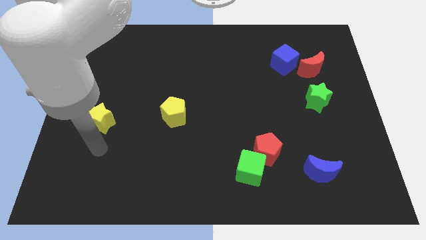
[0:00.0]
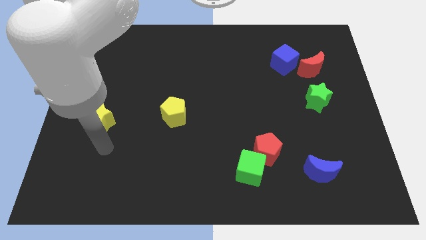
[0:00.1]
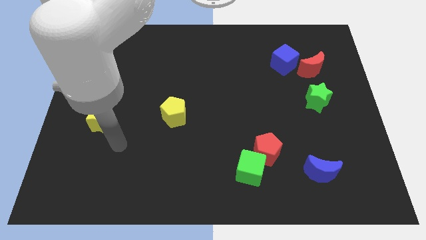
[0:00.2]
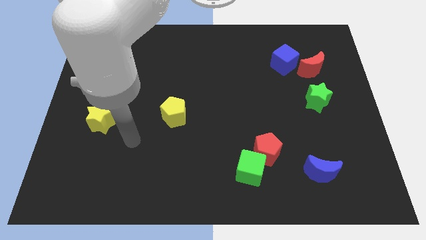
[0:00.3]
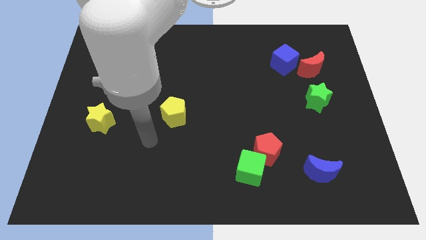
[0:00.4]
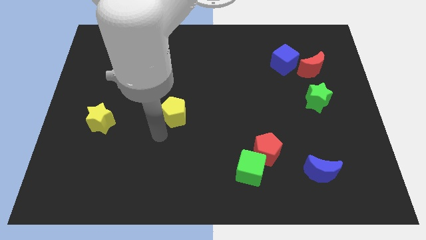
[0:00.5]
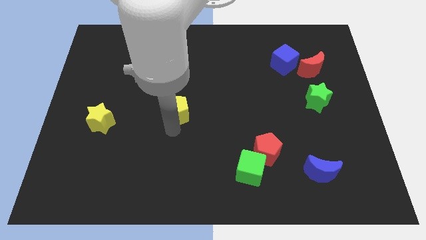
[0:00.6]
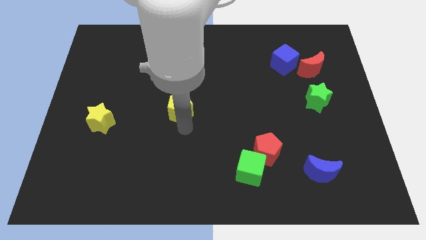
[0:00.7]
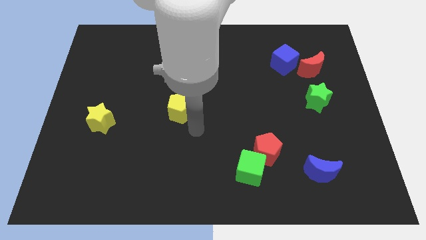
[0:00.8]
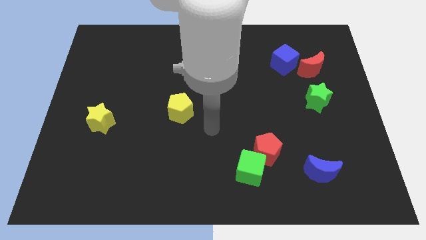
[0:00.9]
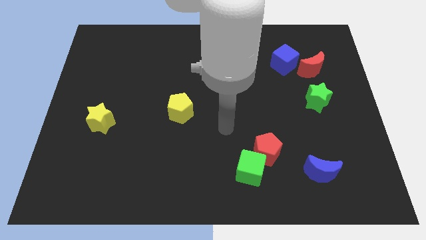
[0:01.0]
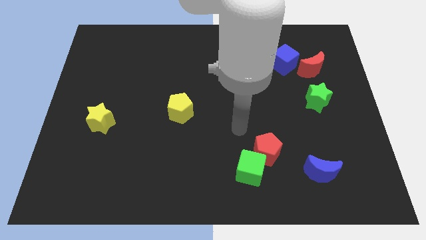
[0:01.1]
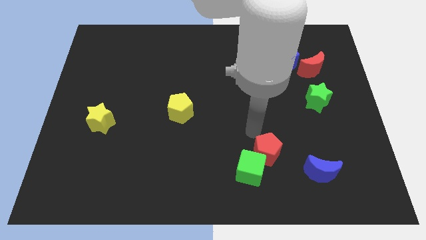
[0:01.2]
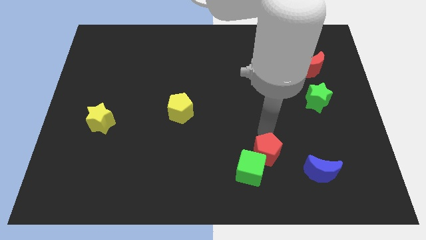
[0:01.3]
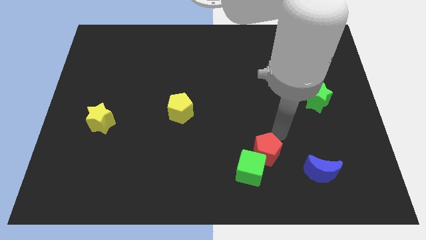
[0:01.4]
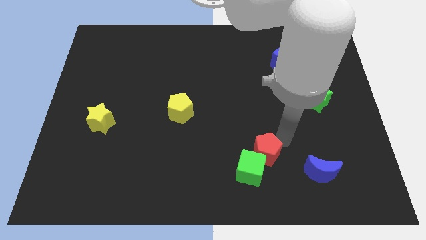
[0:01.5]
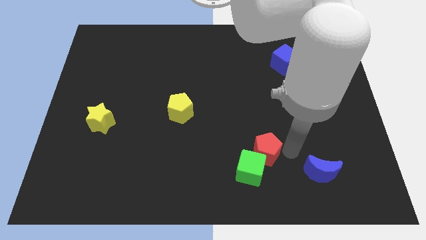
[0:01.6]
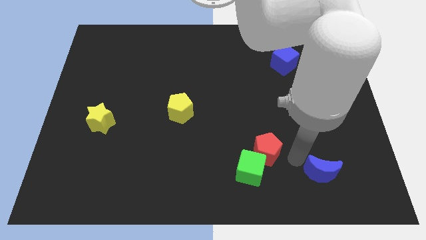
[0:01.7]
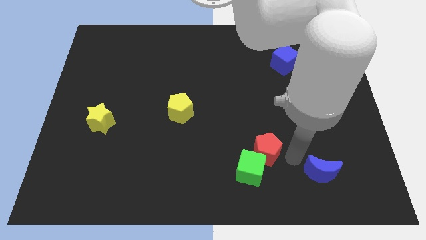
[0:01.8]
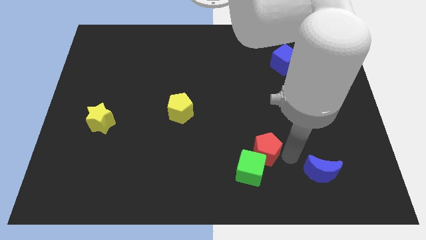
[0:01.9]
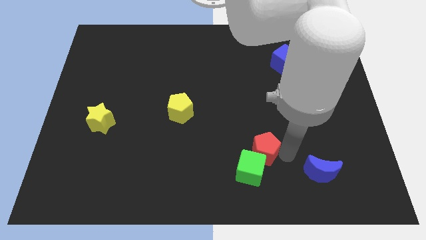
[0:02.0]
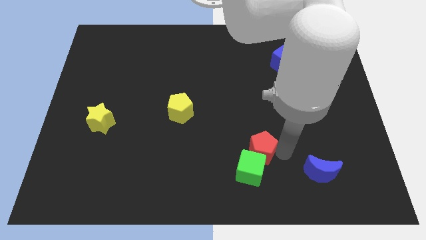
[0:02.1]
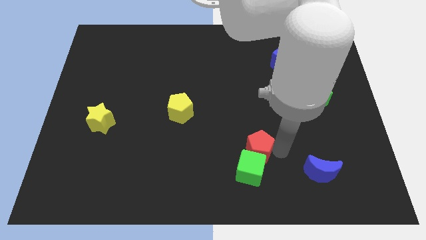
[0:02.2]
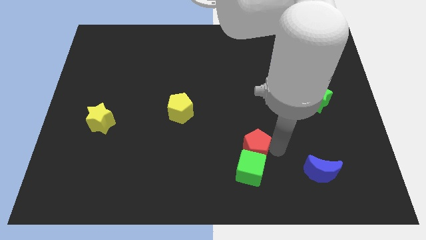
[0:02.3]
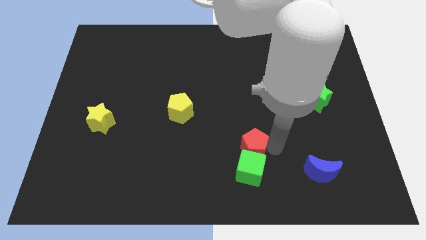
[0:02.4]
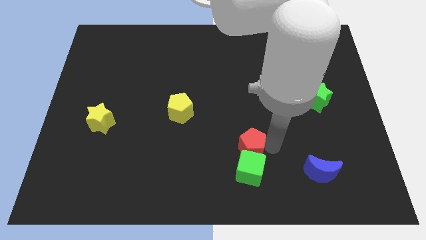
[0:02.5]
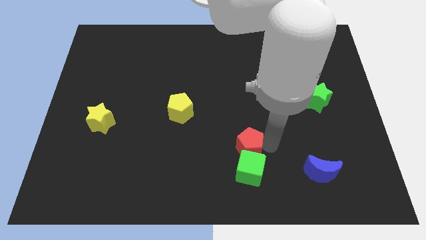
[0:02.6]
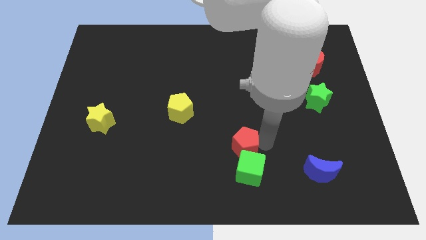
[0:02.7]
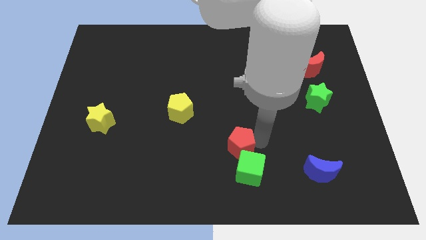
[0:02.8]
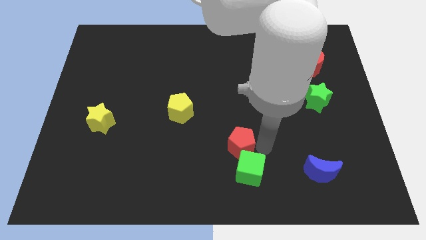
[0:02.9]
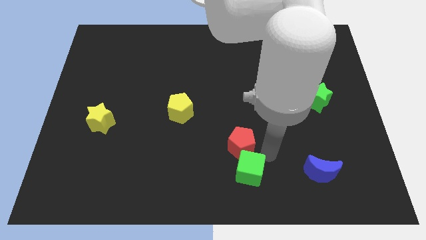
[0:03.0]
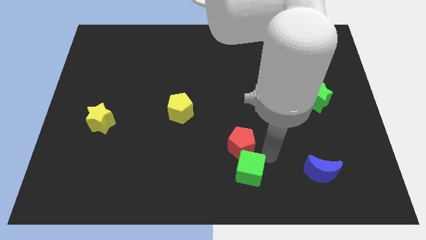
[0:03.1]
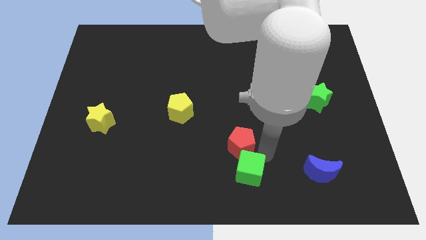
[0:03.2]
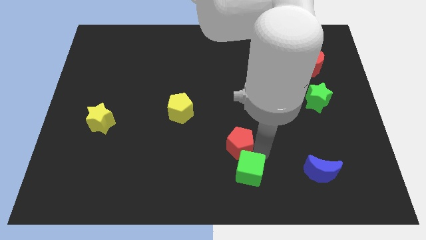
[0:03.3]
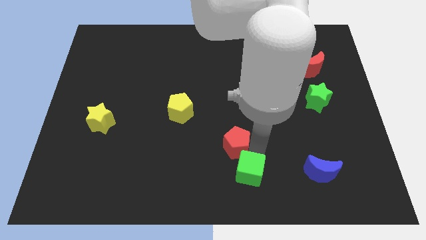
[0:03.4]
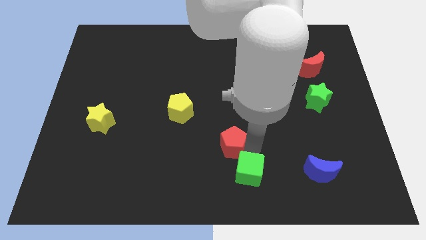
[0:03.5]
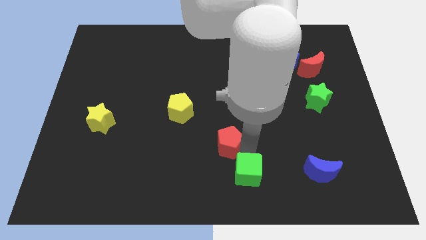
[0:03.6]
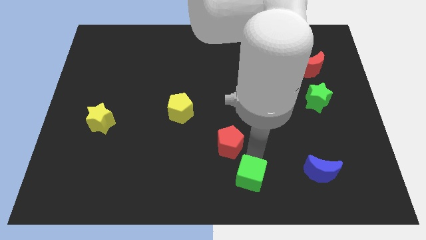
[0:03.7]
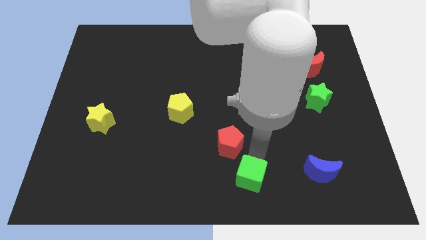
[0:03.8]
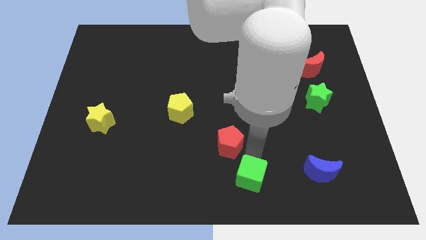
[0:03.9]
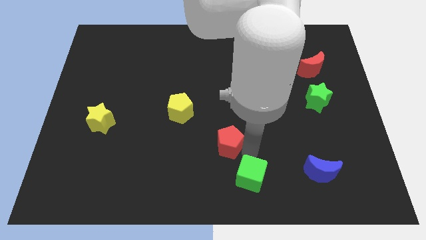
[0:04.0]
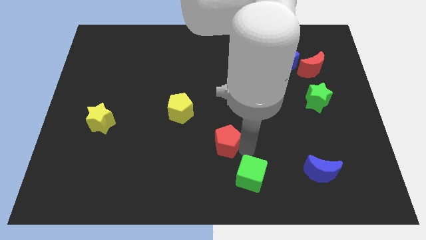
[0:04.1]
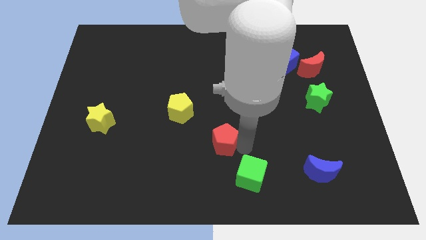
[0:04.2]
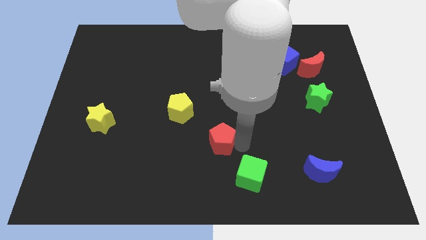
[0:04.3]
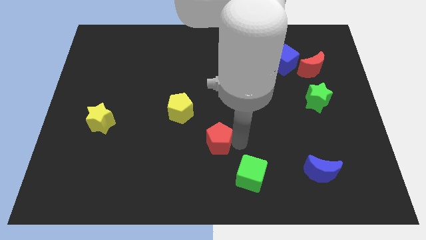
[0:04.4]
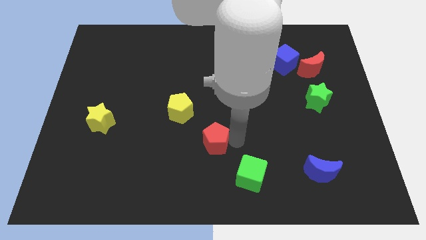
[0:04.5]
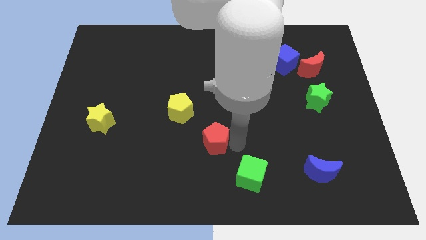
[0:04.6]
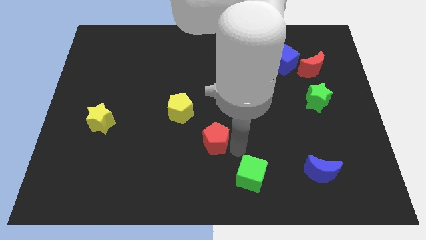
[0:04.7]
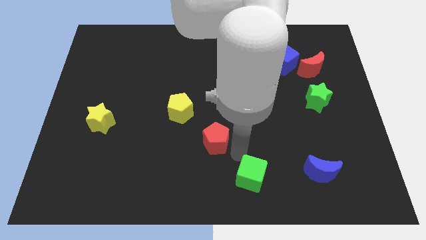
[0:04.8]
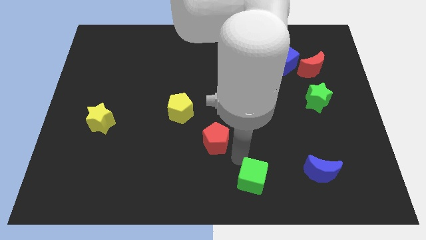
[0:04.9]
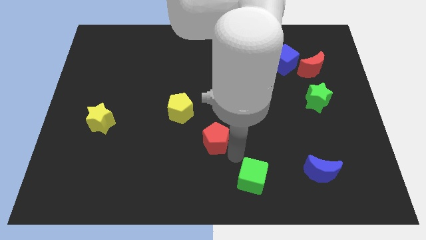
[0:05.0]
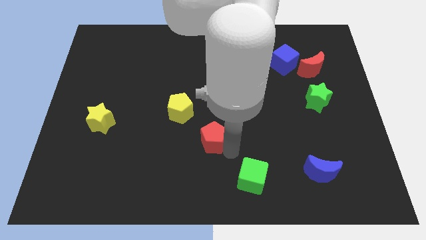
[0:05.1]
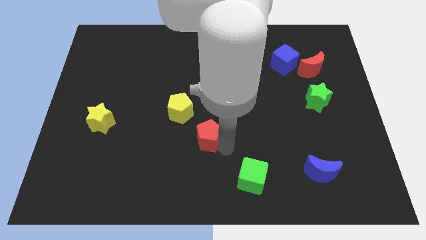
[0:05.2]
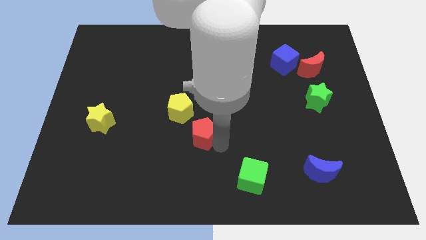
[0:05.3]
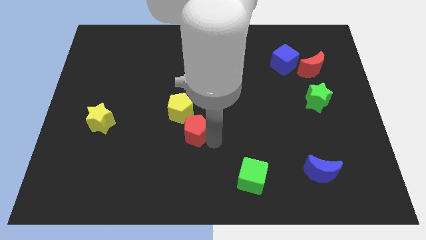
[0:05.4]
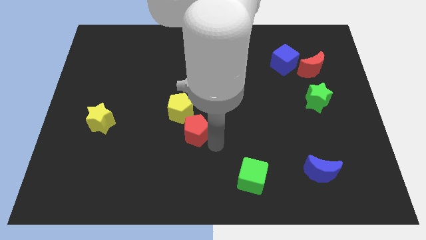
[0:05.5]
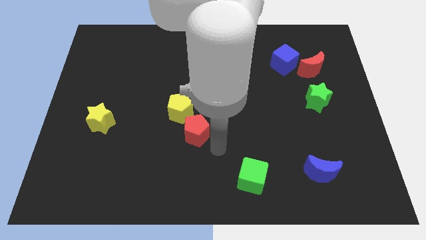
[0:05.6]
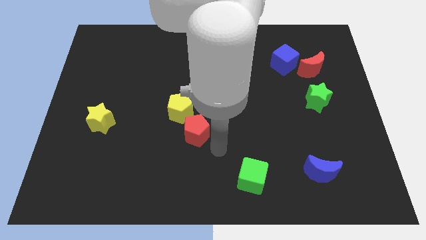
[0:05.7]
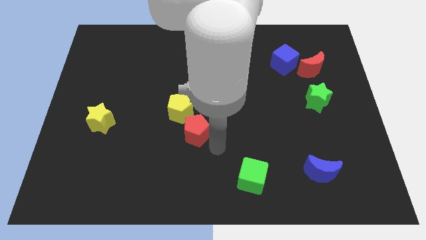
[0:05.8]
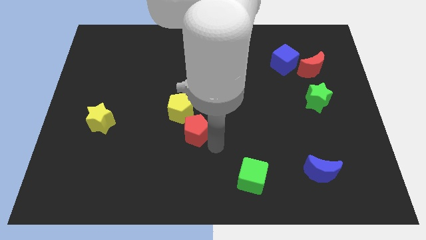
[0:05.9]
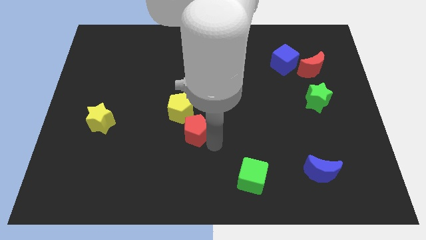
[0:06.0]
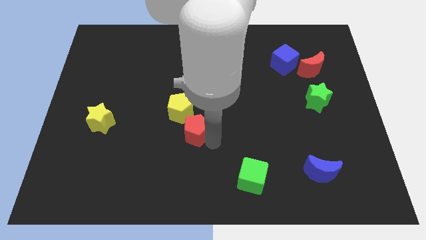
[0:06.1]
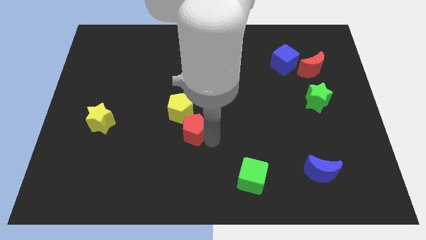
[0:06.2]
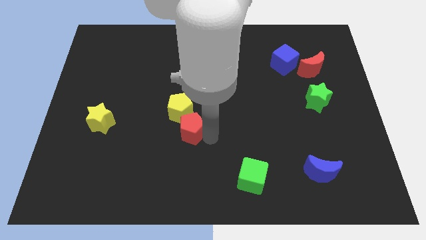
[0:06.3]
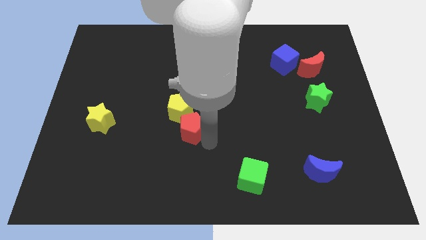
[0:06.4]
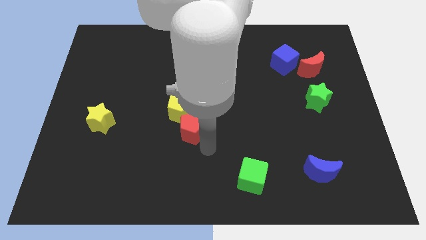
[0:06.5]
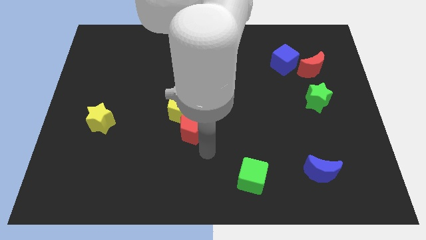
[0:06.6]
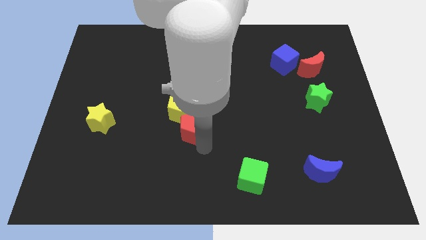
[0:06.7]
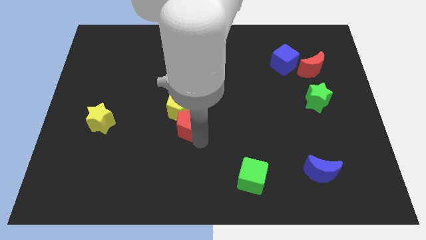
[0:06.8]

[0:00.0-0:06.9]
push the red pentagon to the yellow pentagon
